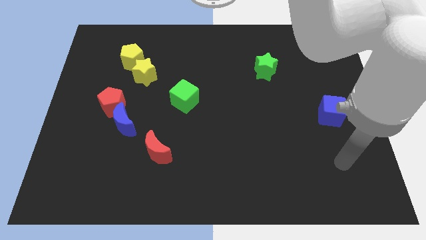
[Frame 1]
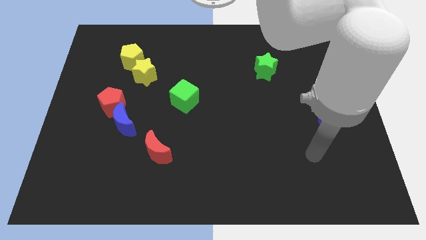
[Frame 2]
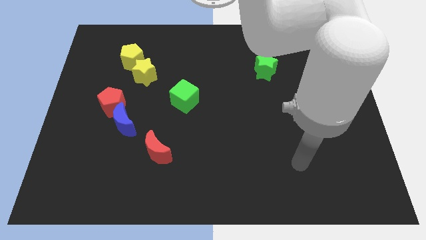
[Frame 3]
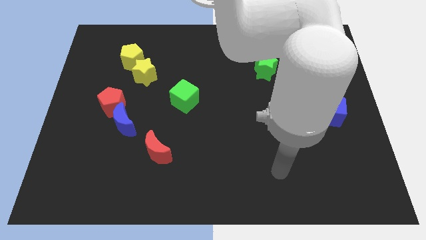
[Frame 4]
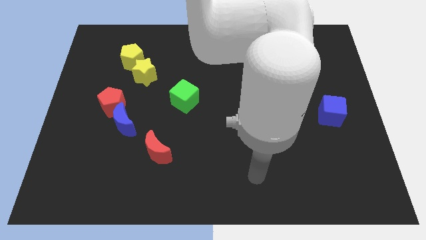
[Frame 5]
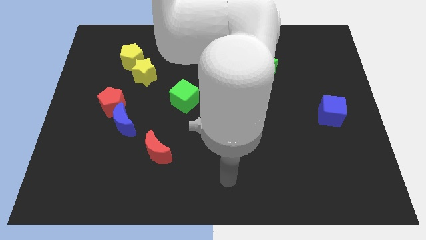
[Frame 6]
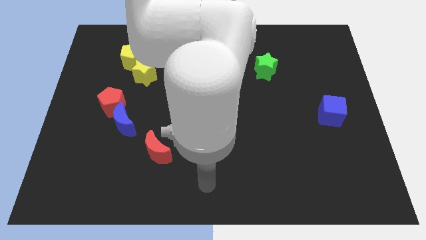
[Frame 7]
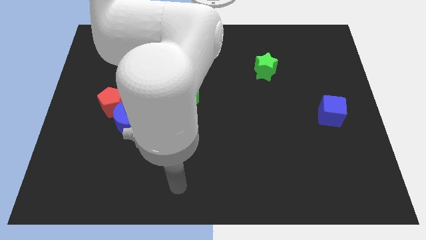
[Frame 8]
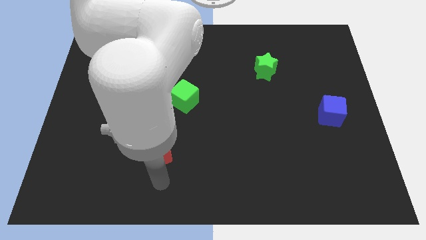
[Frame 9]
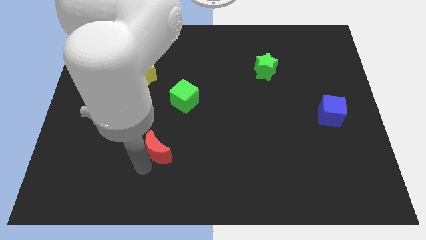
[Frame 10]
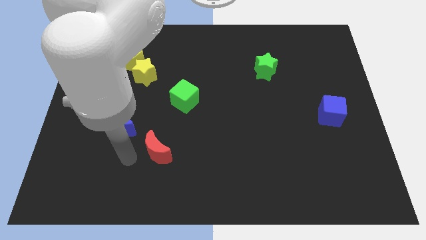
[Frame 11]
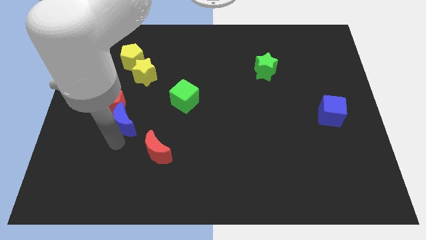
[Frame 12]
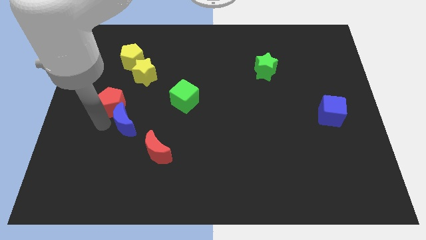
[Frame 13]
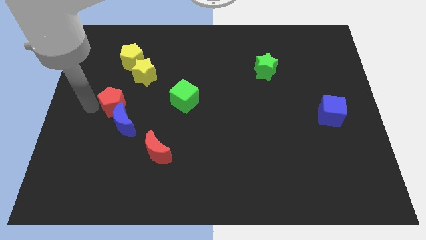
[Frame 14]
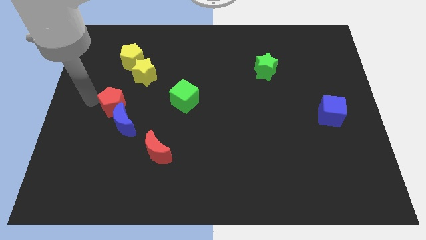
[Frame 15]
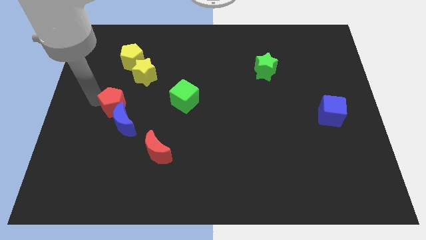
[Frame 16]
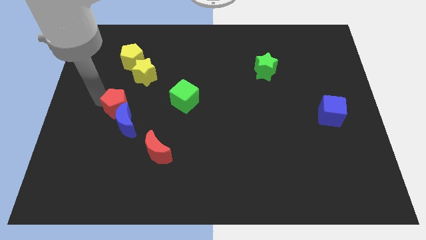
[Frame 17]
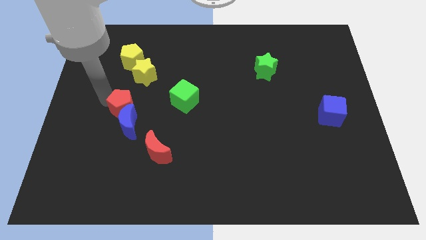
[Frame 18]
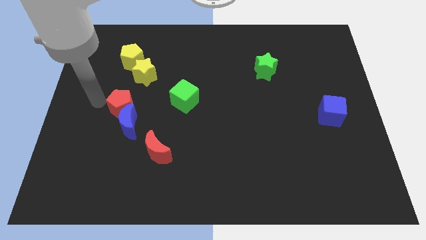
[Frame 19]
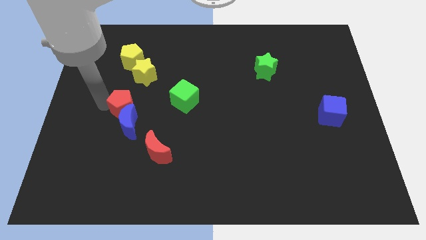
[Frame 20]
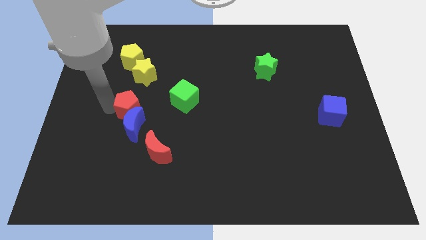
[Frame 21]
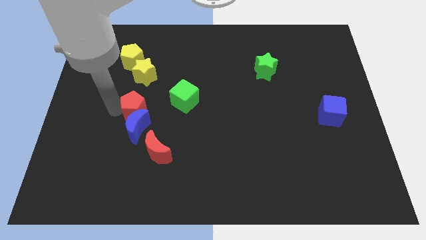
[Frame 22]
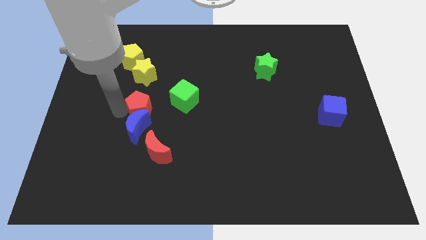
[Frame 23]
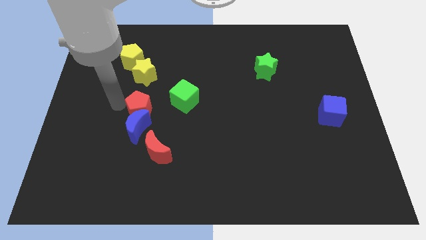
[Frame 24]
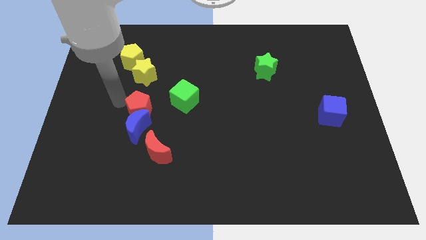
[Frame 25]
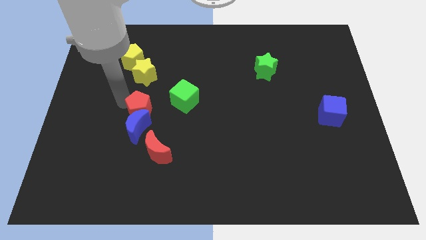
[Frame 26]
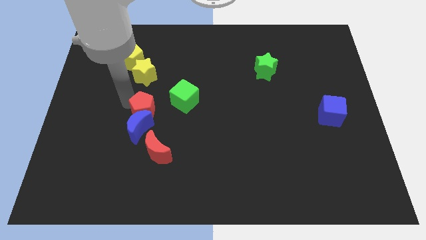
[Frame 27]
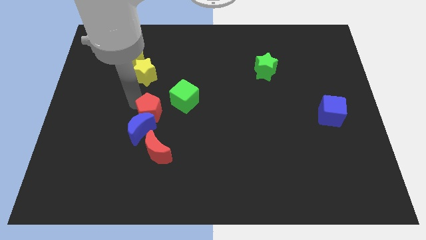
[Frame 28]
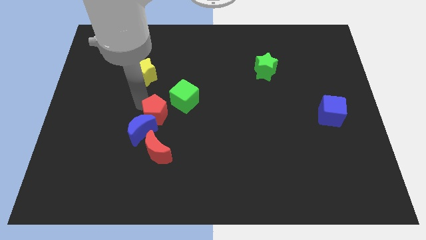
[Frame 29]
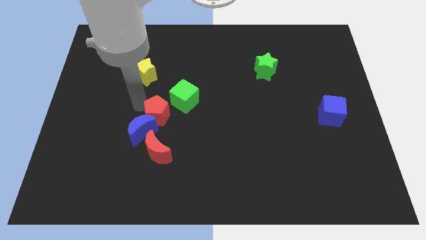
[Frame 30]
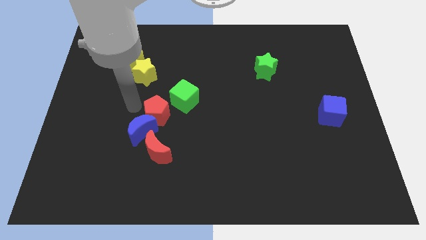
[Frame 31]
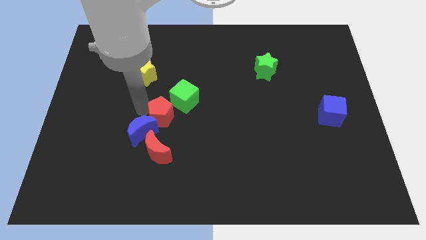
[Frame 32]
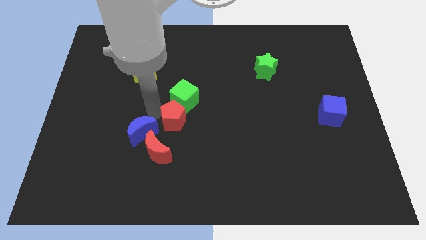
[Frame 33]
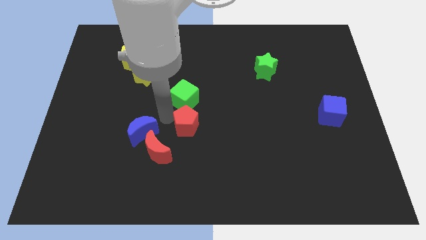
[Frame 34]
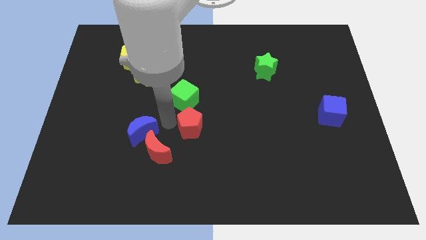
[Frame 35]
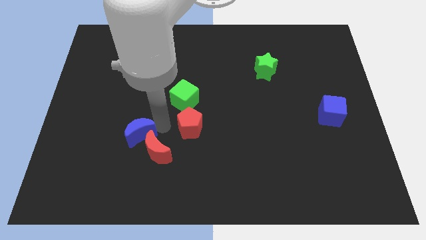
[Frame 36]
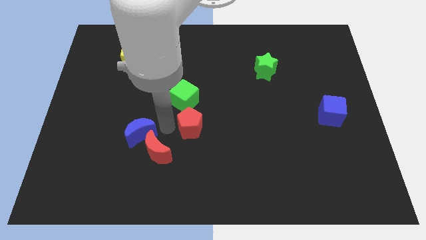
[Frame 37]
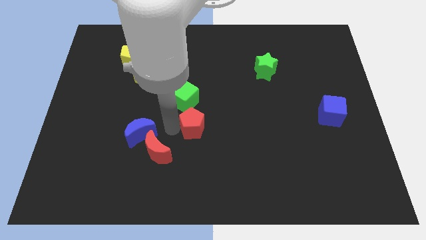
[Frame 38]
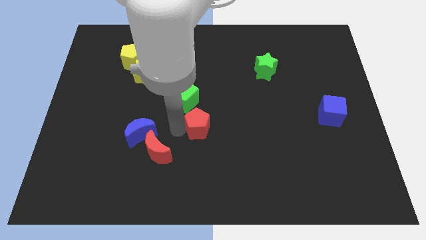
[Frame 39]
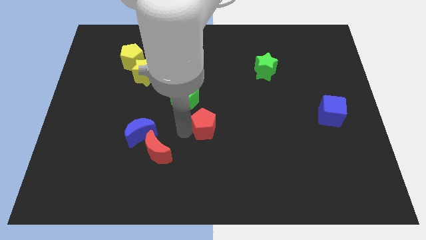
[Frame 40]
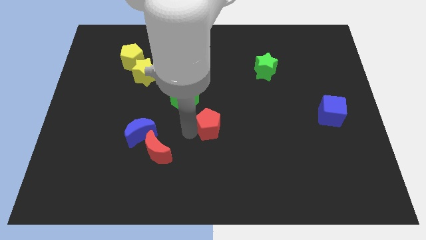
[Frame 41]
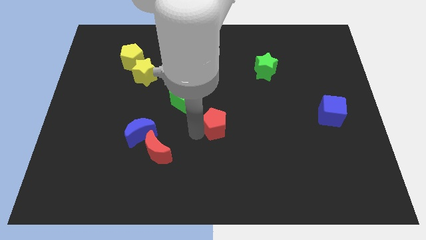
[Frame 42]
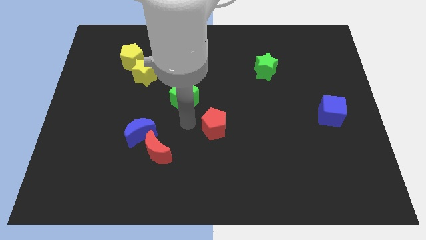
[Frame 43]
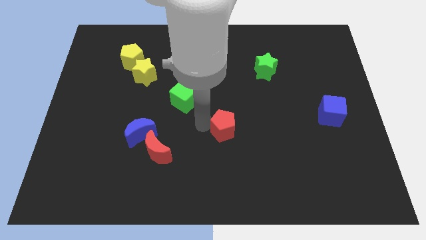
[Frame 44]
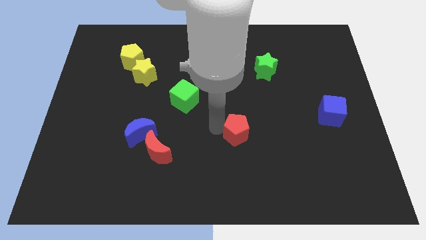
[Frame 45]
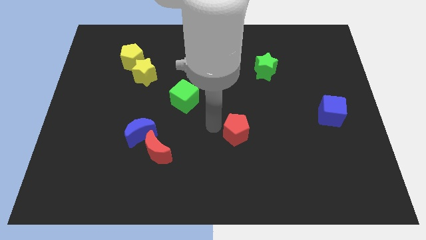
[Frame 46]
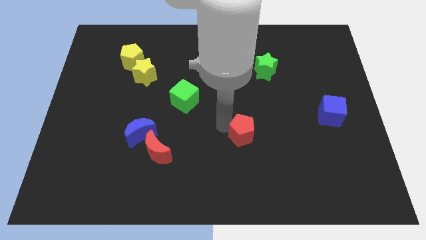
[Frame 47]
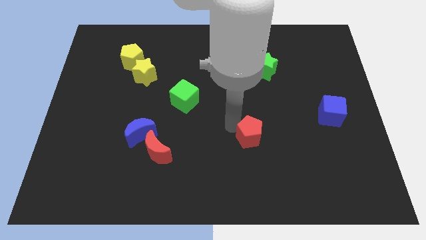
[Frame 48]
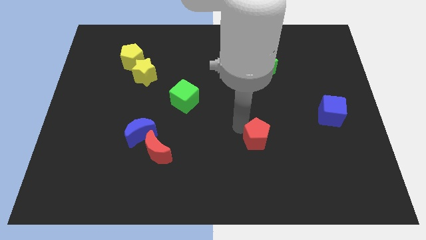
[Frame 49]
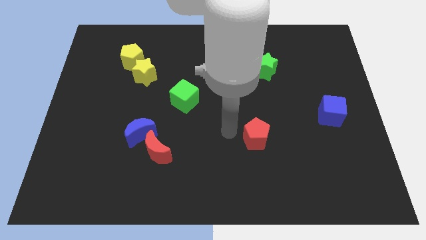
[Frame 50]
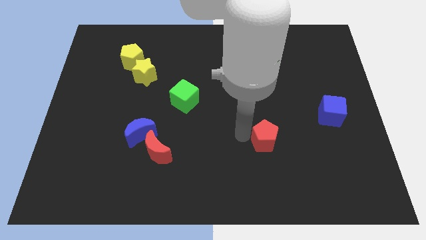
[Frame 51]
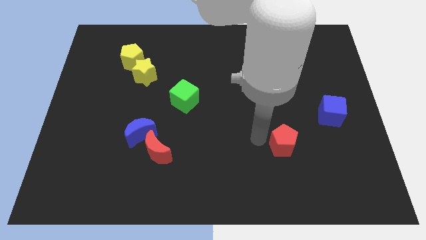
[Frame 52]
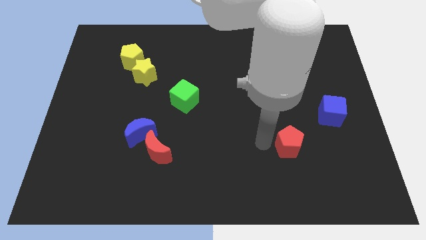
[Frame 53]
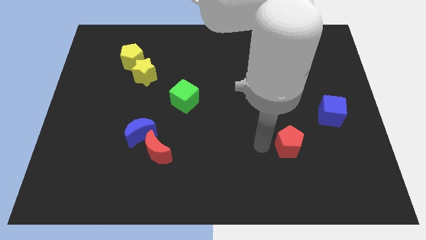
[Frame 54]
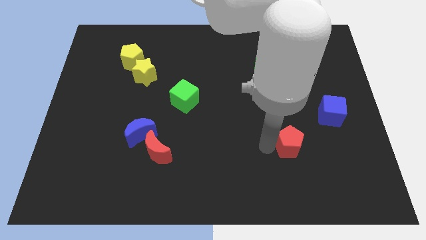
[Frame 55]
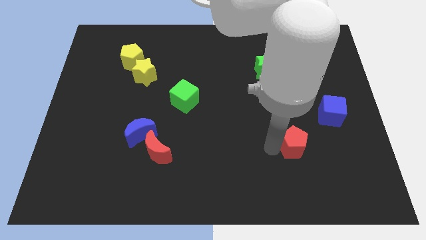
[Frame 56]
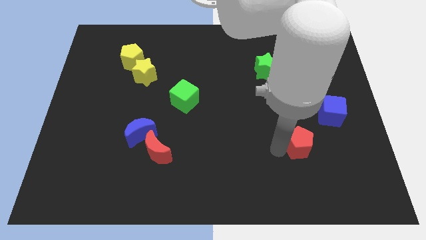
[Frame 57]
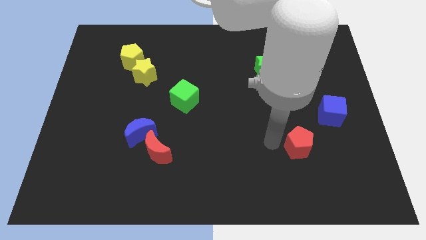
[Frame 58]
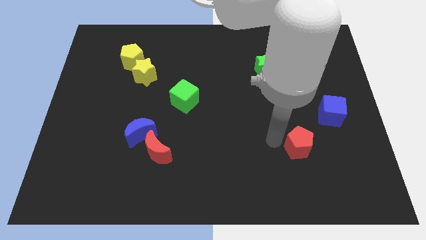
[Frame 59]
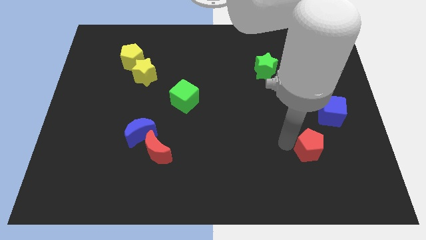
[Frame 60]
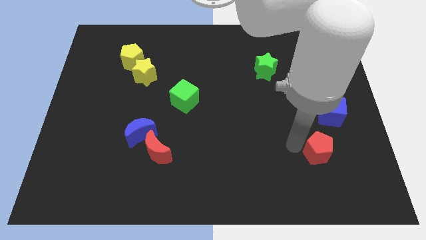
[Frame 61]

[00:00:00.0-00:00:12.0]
move the red pentagon to the bottom side of the blue cube

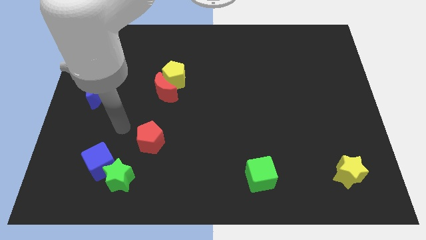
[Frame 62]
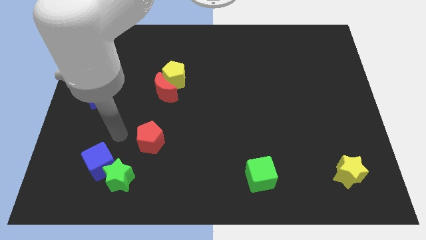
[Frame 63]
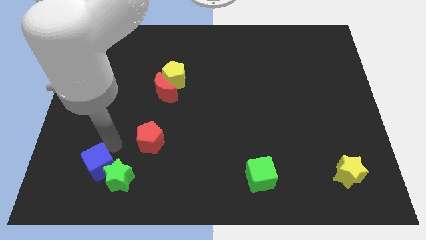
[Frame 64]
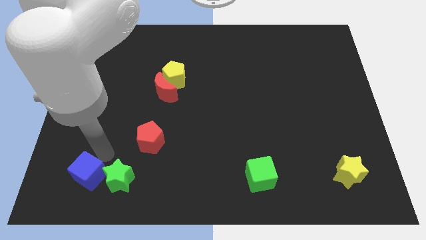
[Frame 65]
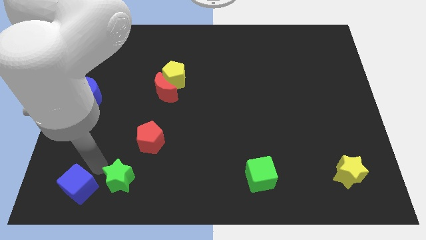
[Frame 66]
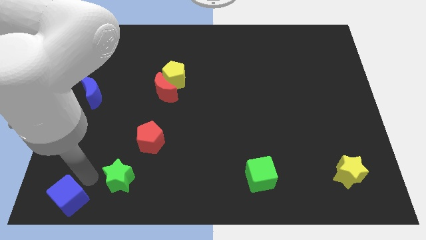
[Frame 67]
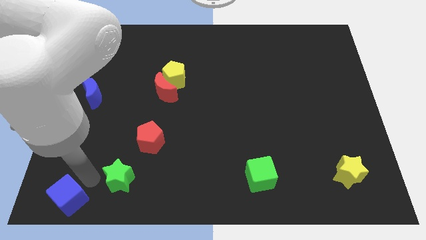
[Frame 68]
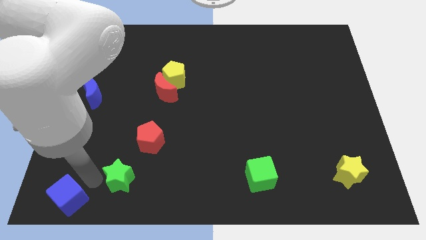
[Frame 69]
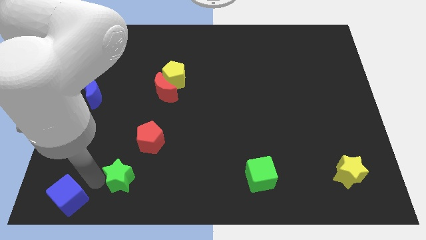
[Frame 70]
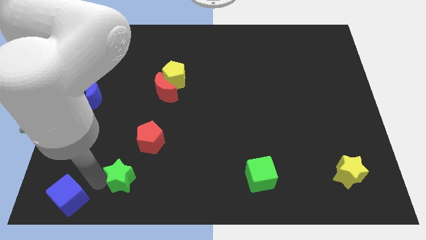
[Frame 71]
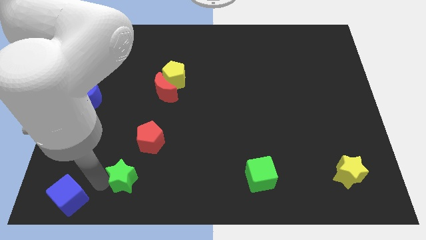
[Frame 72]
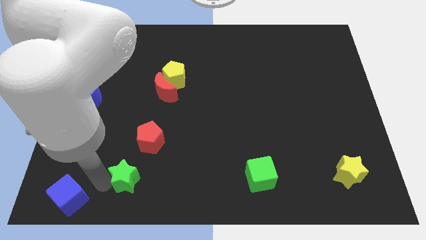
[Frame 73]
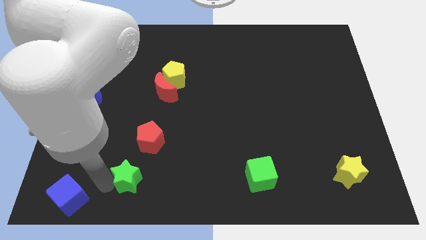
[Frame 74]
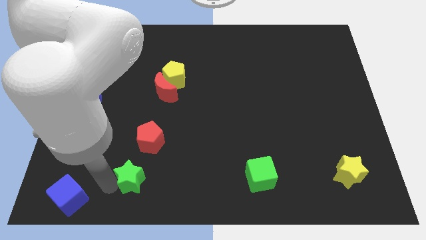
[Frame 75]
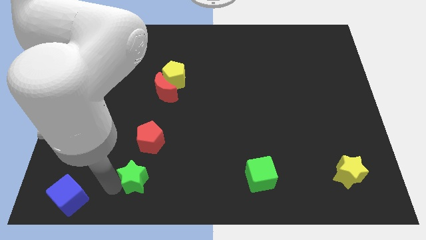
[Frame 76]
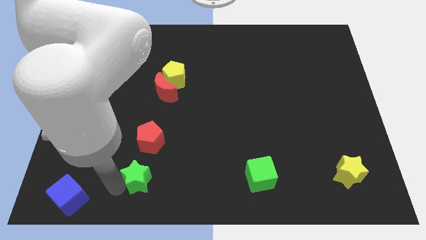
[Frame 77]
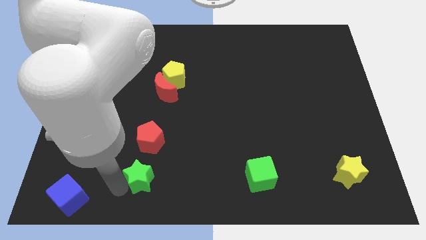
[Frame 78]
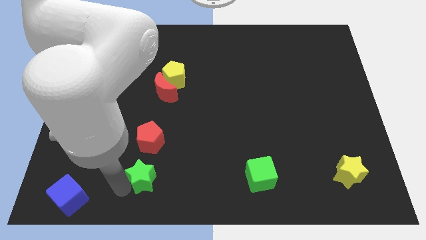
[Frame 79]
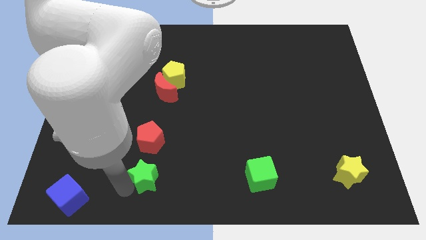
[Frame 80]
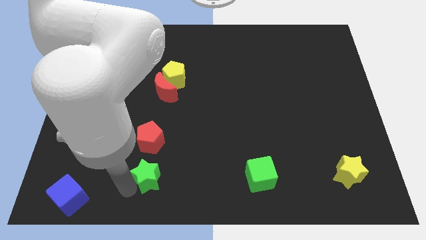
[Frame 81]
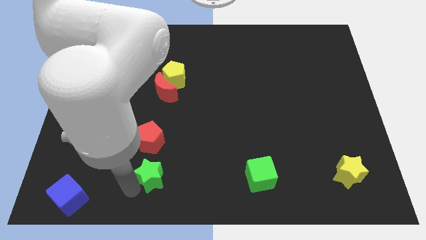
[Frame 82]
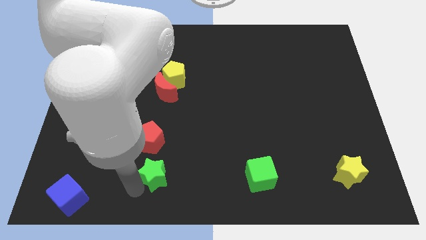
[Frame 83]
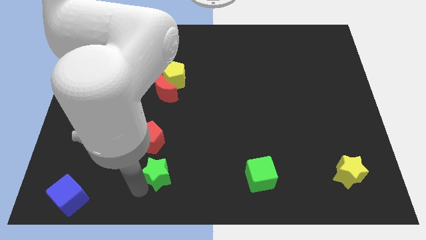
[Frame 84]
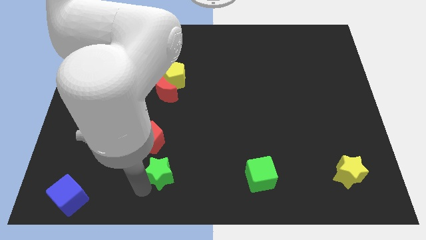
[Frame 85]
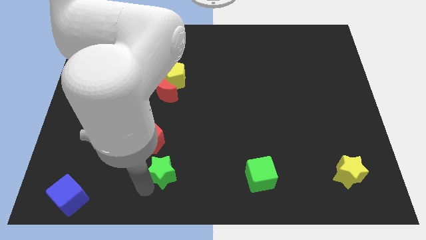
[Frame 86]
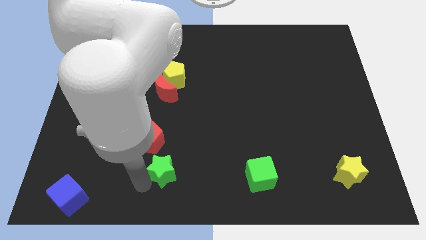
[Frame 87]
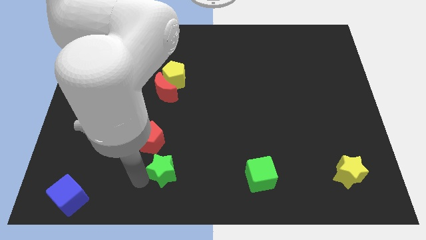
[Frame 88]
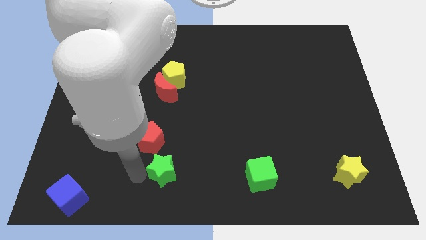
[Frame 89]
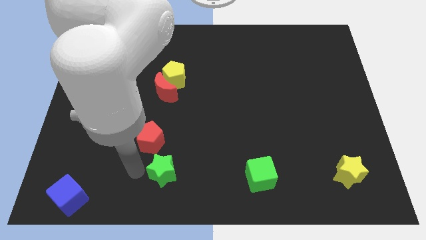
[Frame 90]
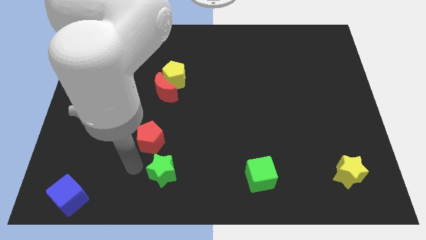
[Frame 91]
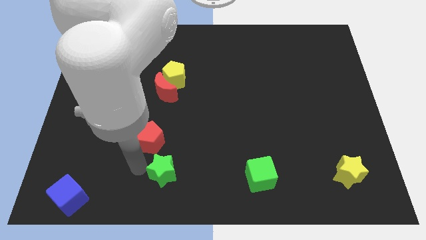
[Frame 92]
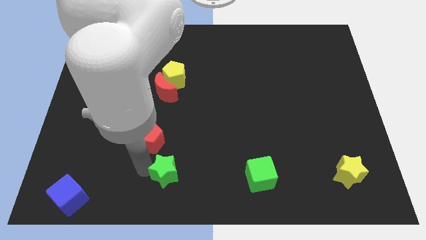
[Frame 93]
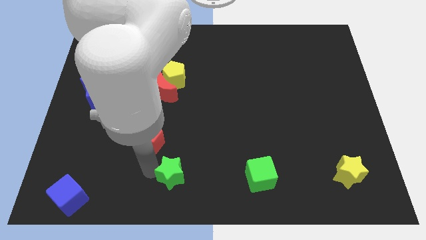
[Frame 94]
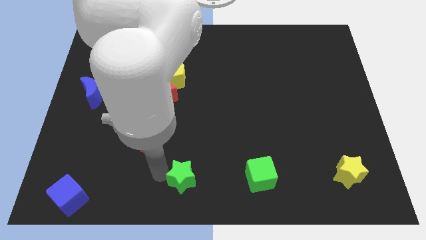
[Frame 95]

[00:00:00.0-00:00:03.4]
move the green star left of the green cube
